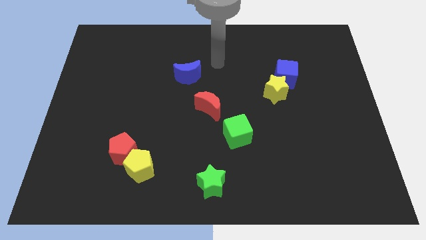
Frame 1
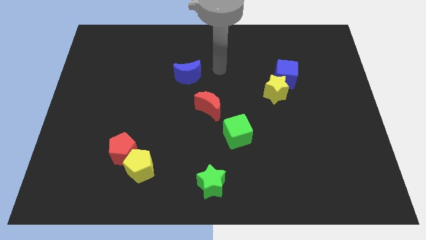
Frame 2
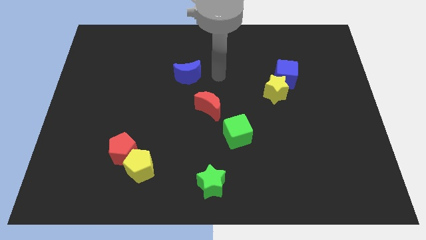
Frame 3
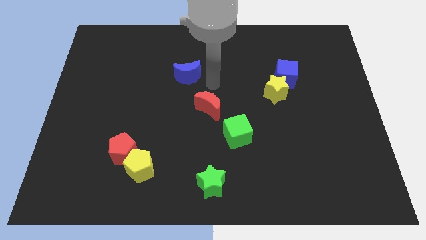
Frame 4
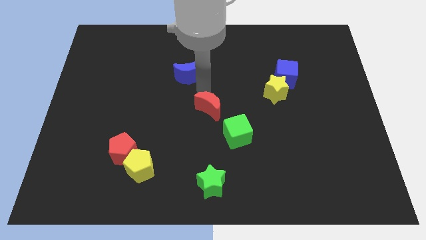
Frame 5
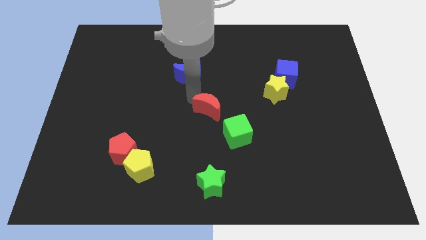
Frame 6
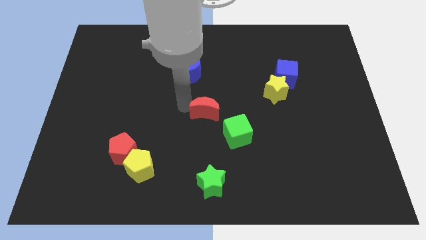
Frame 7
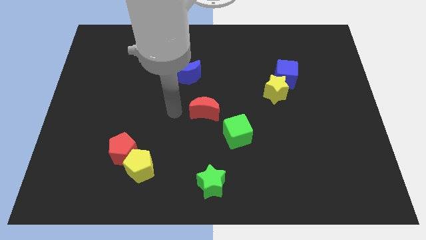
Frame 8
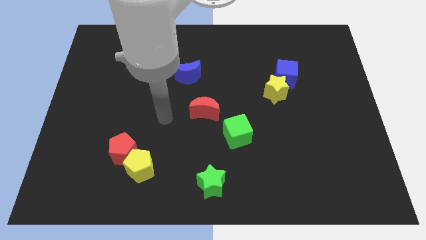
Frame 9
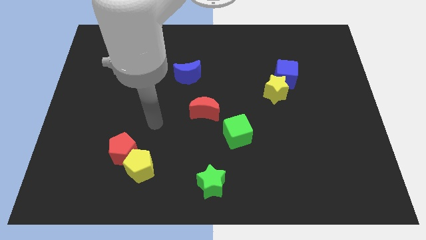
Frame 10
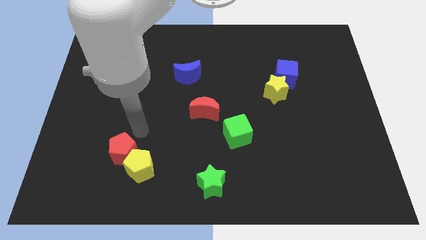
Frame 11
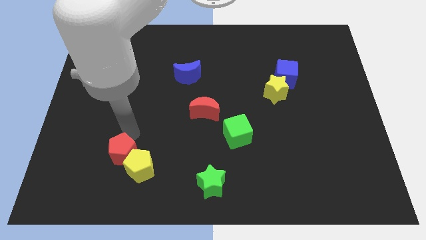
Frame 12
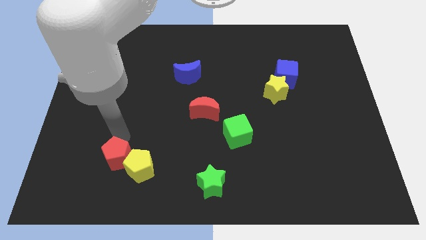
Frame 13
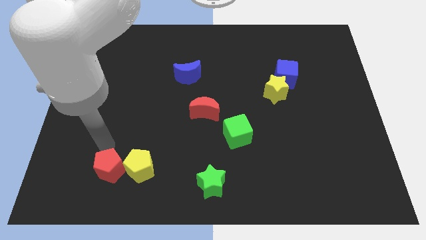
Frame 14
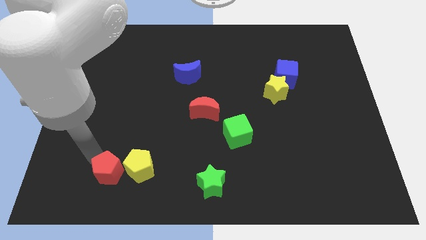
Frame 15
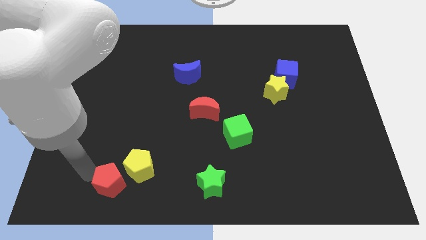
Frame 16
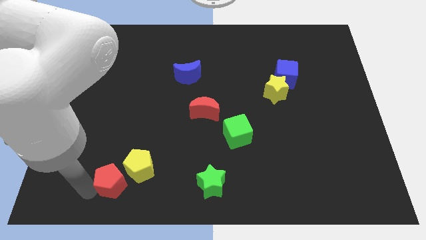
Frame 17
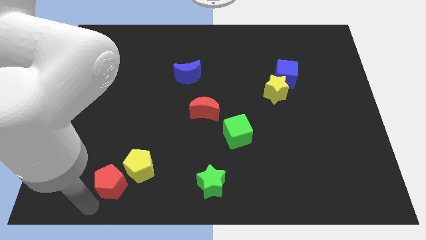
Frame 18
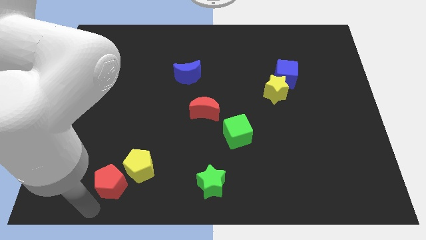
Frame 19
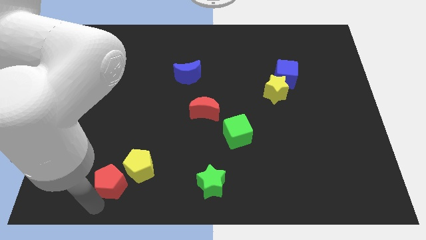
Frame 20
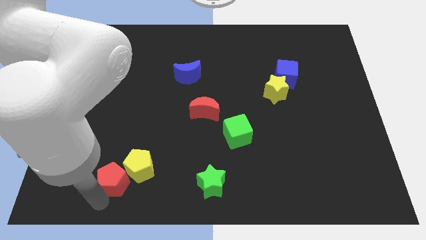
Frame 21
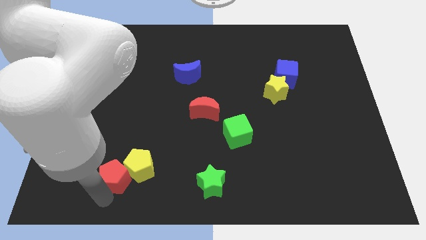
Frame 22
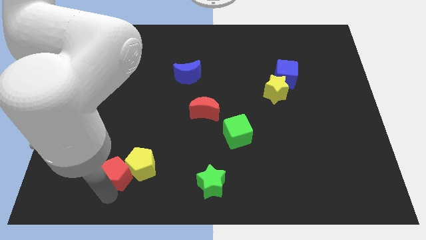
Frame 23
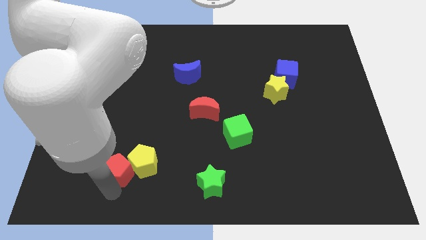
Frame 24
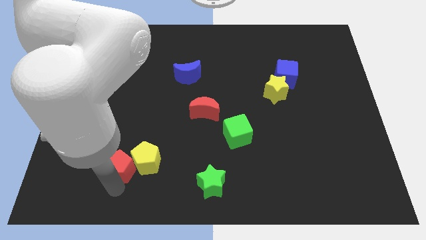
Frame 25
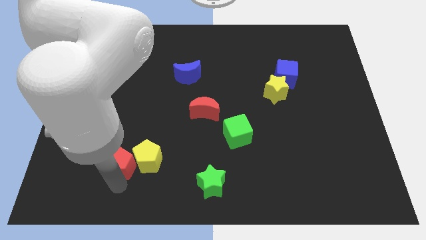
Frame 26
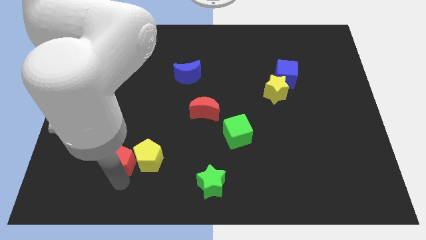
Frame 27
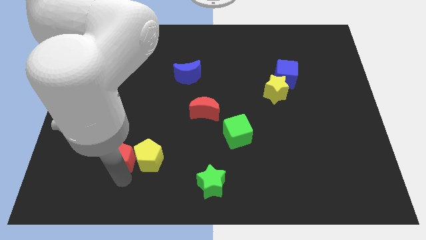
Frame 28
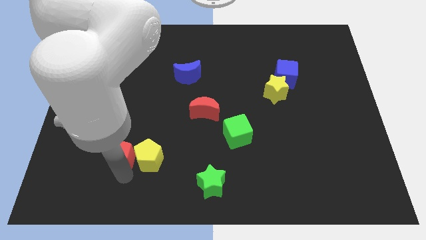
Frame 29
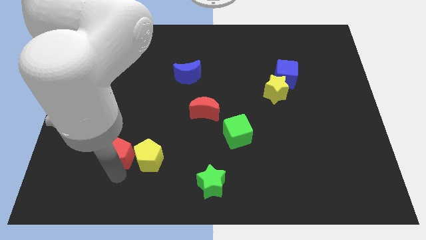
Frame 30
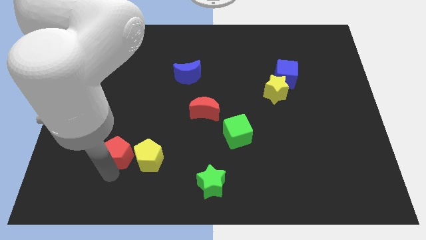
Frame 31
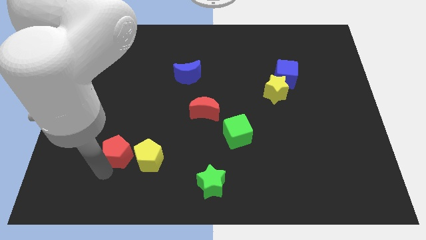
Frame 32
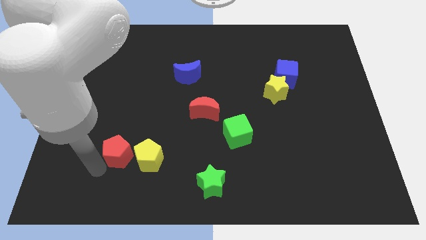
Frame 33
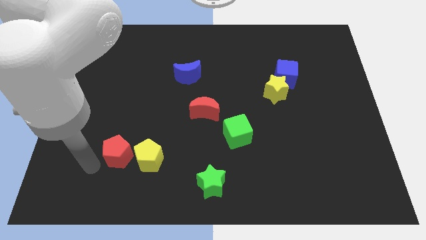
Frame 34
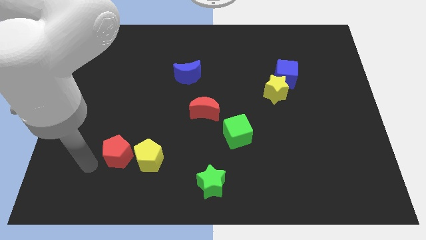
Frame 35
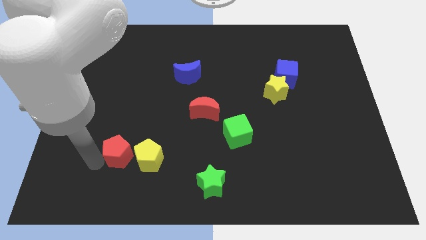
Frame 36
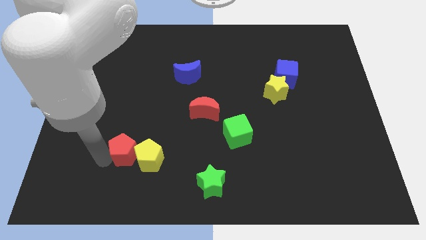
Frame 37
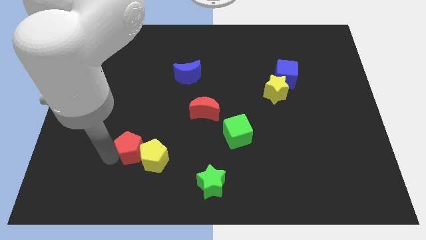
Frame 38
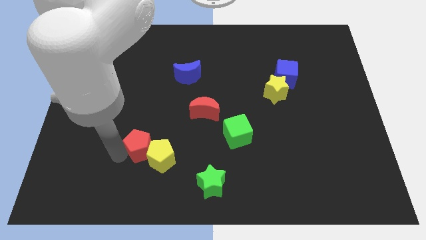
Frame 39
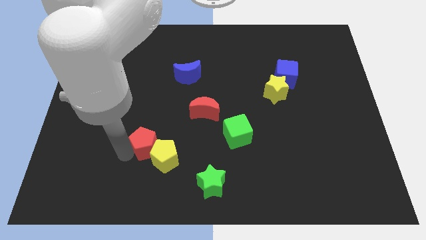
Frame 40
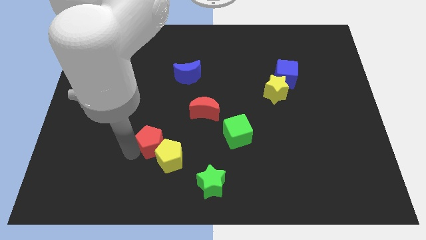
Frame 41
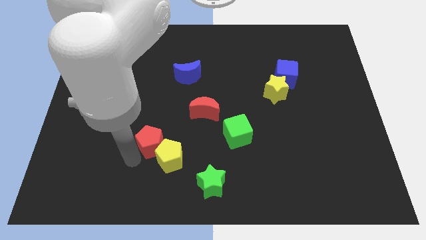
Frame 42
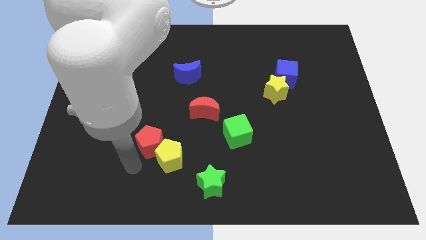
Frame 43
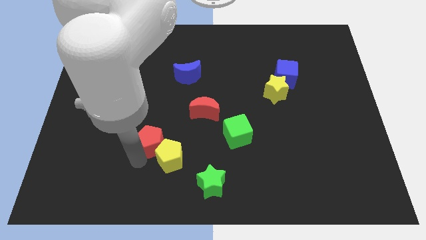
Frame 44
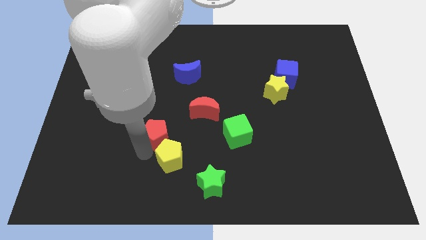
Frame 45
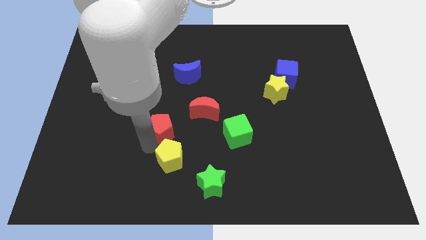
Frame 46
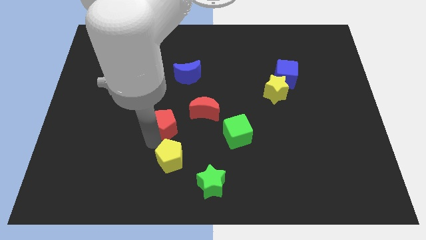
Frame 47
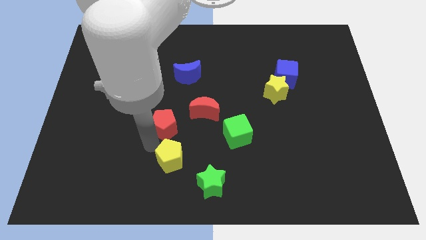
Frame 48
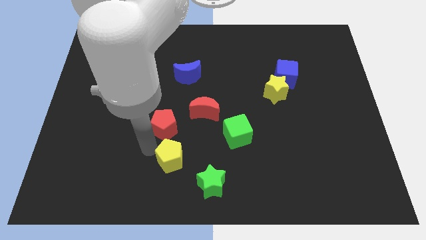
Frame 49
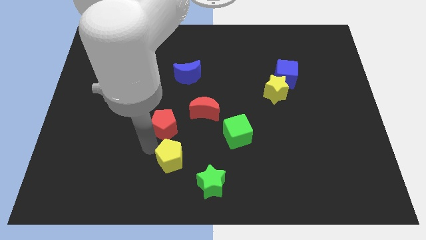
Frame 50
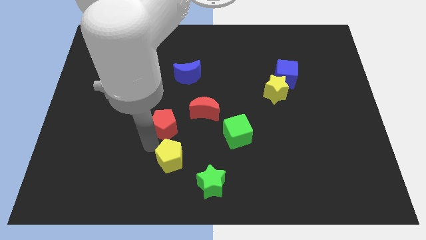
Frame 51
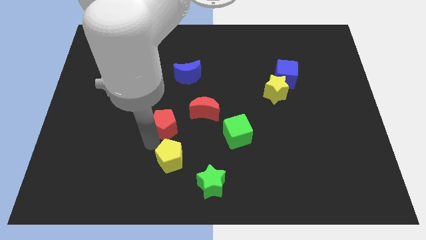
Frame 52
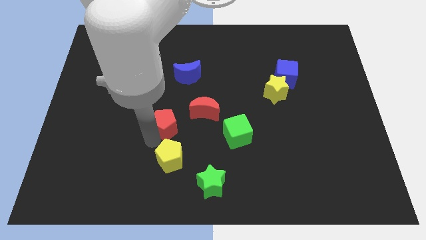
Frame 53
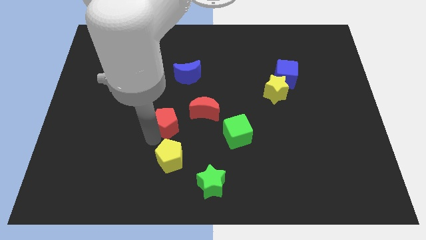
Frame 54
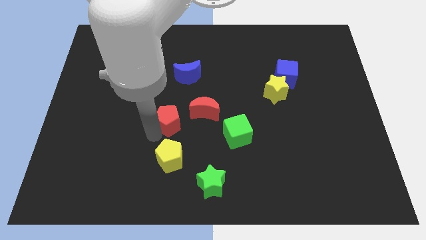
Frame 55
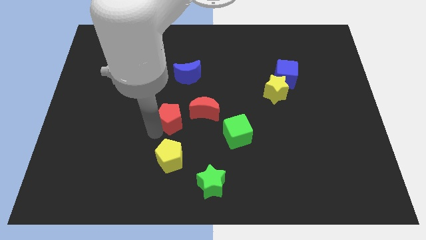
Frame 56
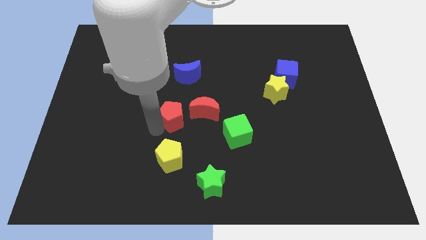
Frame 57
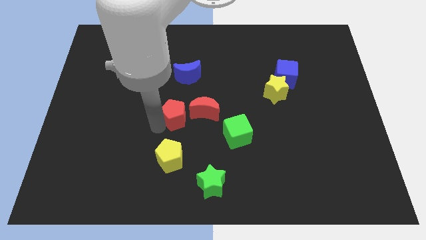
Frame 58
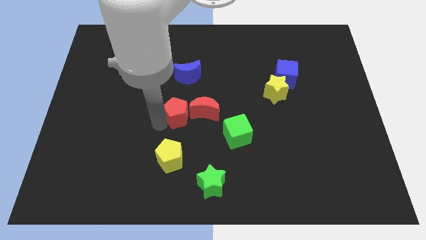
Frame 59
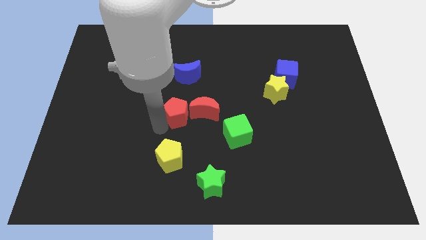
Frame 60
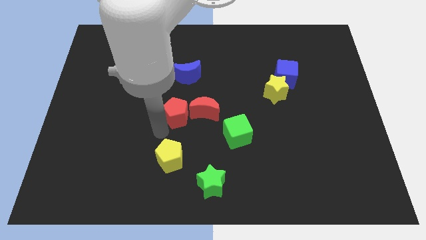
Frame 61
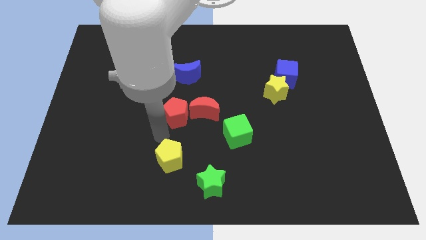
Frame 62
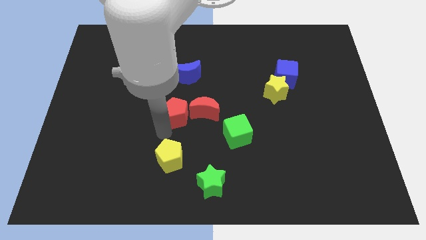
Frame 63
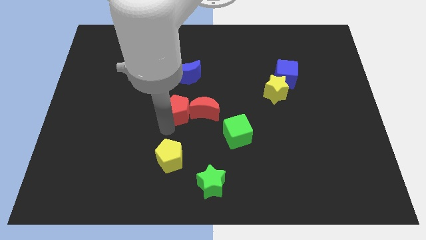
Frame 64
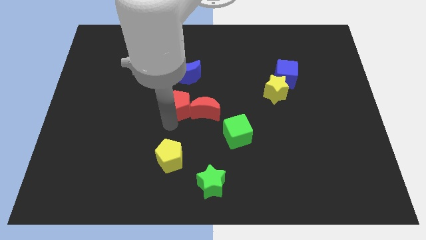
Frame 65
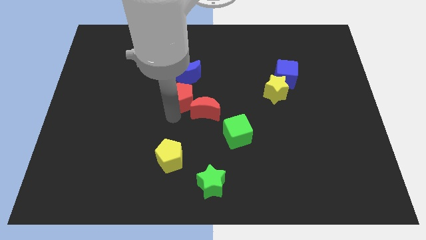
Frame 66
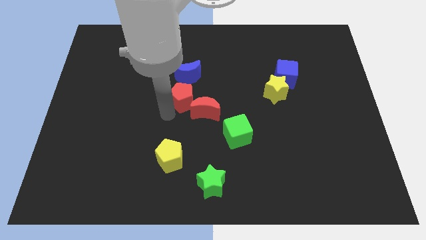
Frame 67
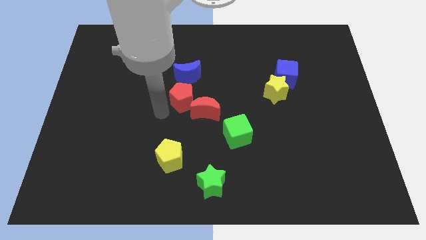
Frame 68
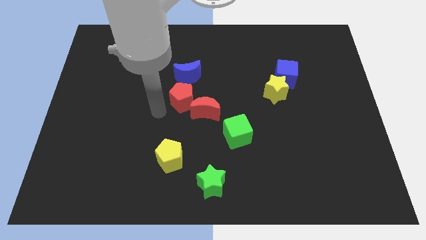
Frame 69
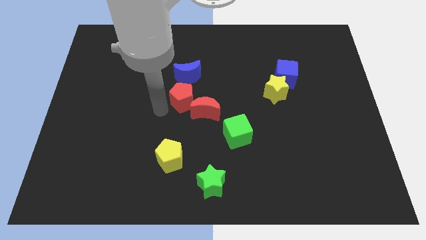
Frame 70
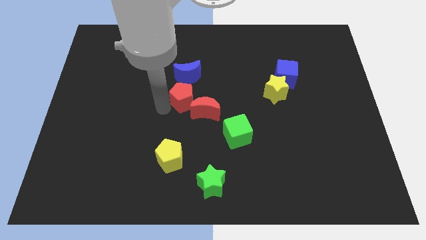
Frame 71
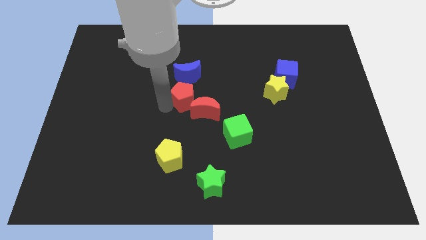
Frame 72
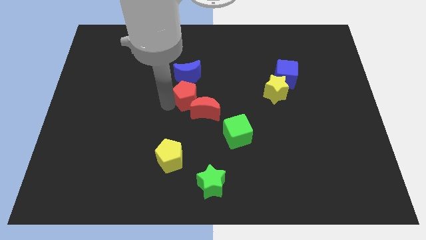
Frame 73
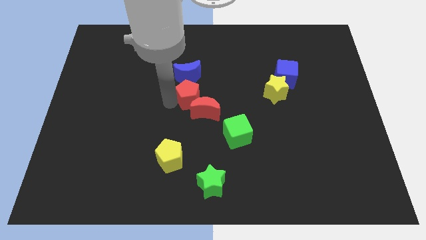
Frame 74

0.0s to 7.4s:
slide the red pentagon upwards and to the right

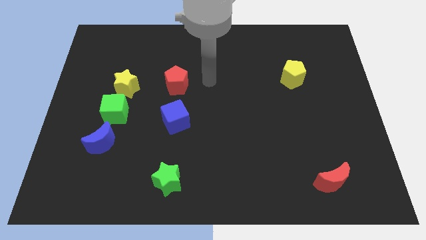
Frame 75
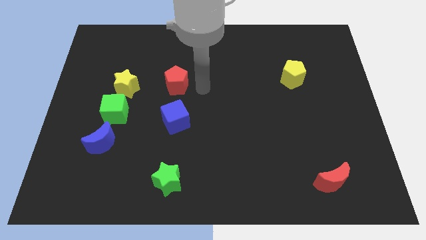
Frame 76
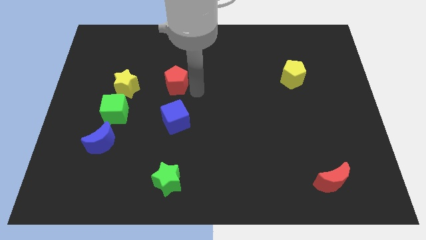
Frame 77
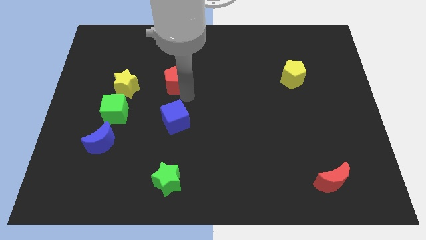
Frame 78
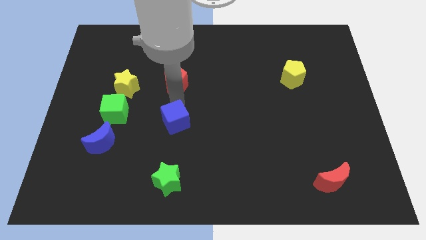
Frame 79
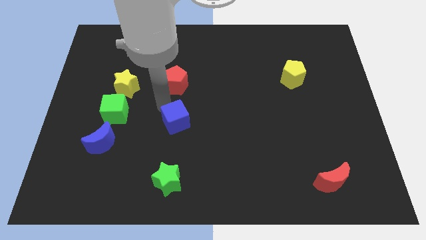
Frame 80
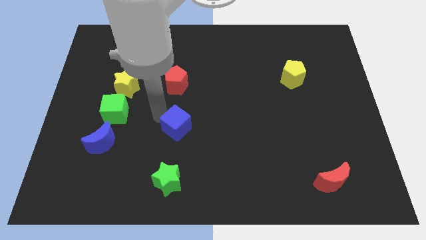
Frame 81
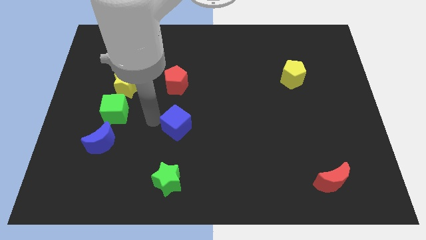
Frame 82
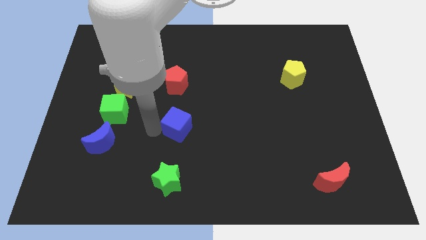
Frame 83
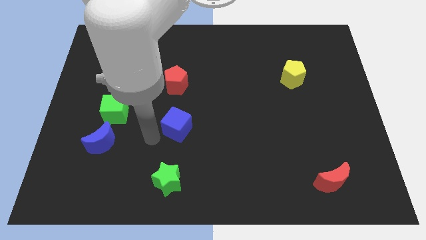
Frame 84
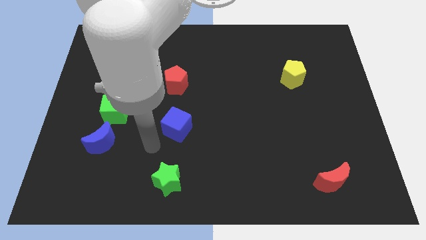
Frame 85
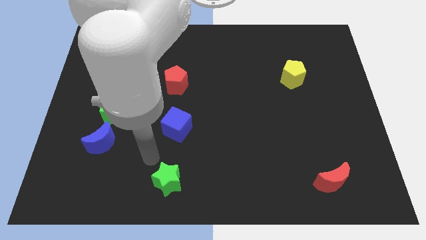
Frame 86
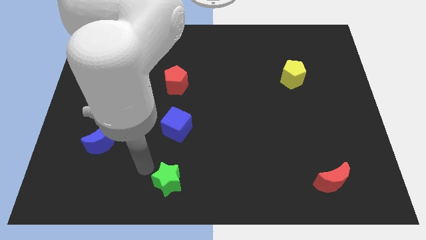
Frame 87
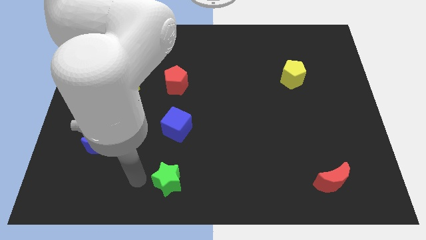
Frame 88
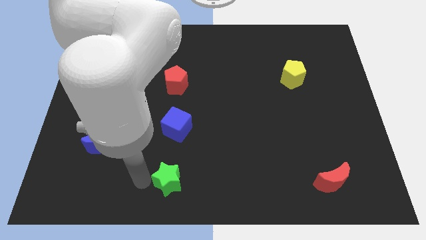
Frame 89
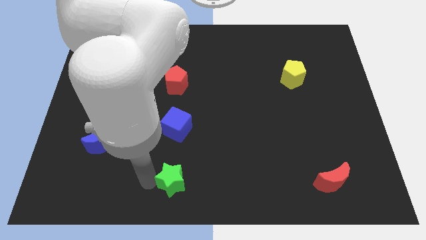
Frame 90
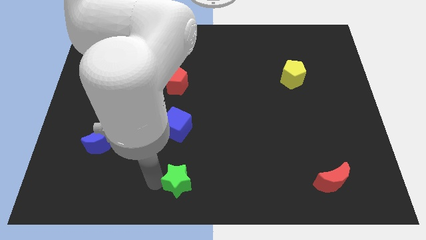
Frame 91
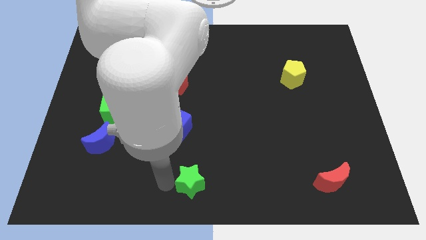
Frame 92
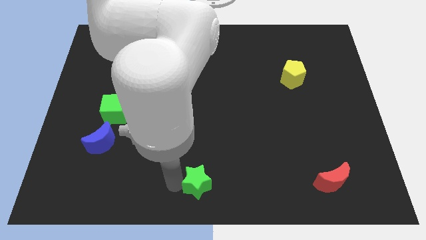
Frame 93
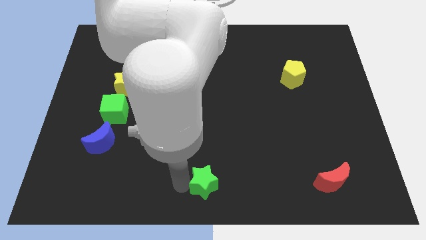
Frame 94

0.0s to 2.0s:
move the green star a little bit right
